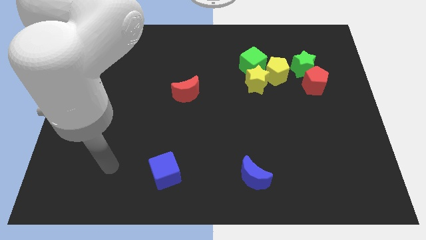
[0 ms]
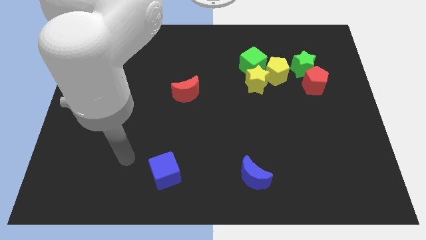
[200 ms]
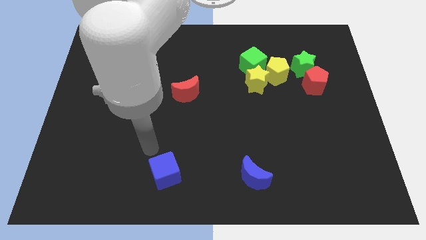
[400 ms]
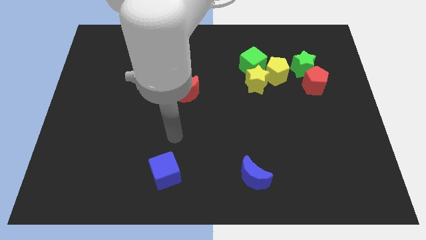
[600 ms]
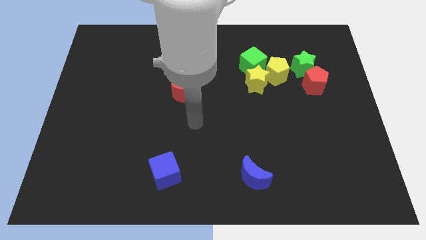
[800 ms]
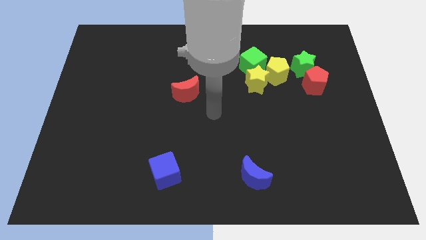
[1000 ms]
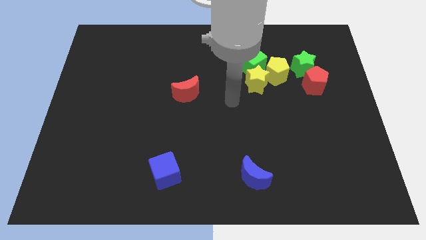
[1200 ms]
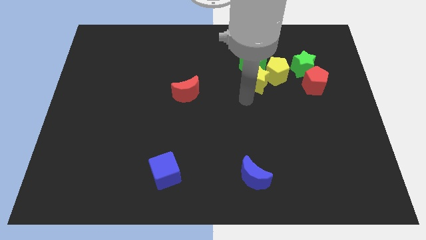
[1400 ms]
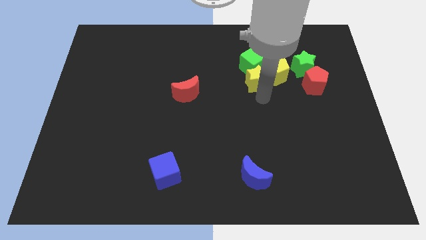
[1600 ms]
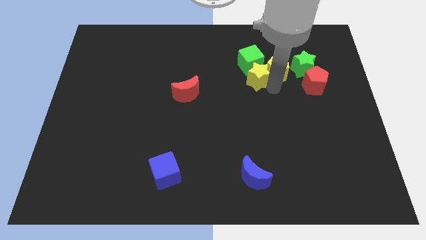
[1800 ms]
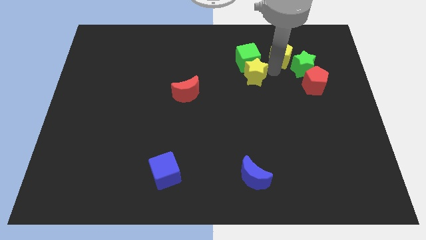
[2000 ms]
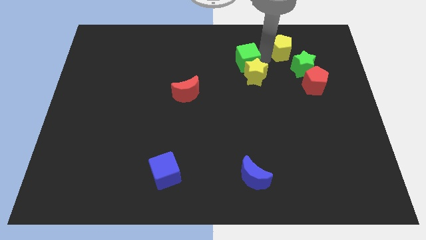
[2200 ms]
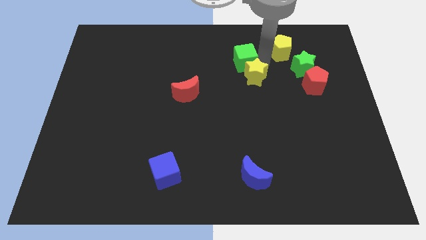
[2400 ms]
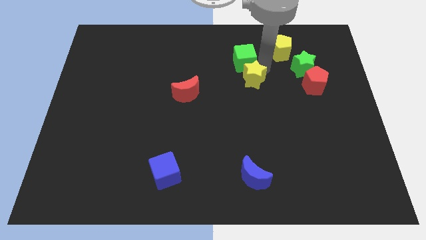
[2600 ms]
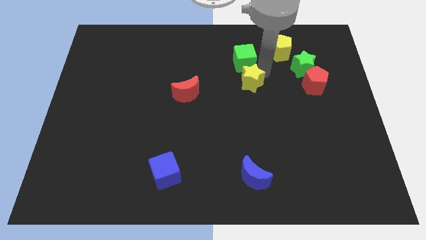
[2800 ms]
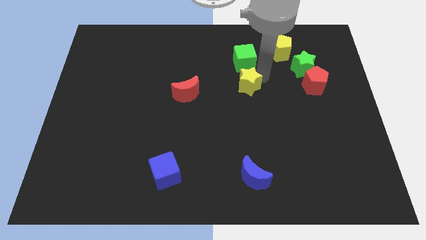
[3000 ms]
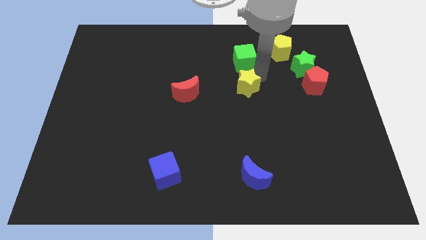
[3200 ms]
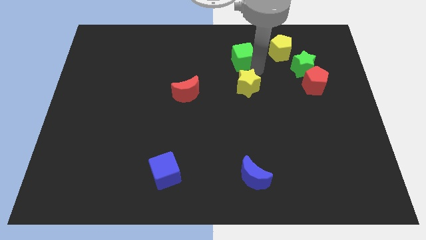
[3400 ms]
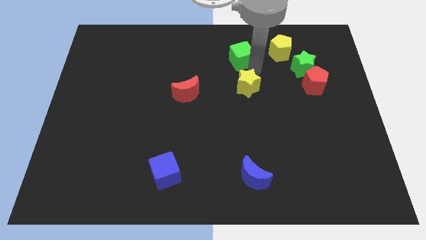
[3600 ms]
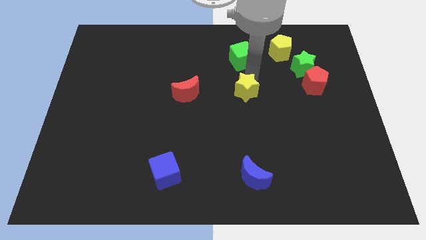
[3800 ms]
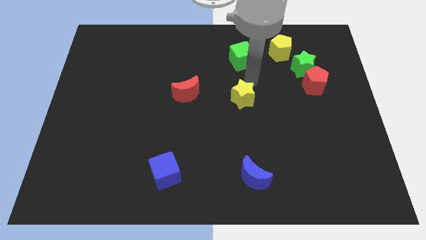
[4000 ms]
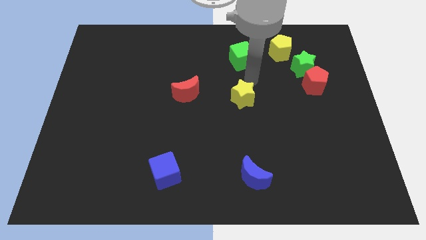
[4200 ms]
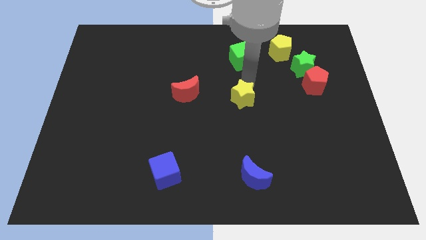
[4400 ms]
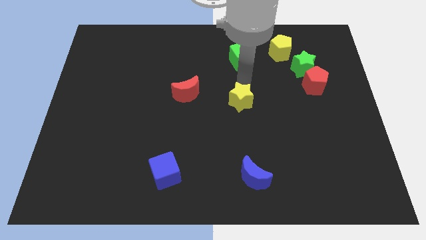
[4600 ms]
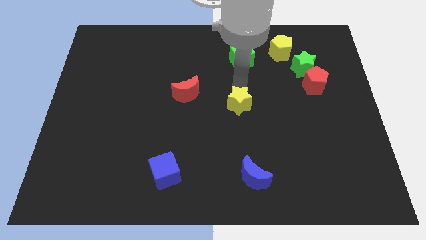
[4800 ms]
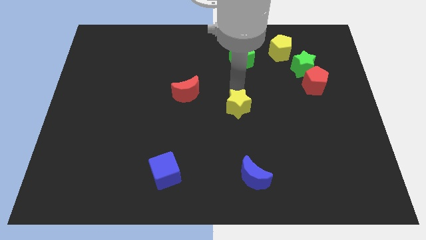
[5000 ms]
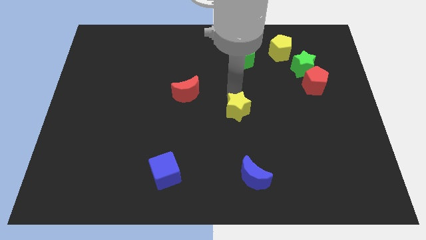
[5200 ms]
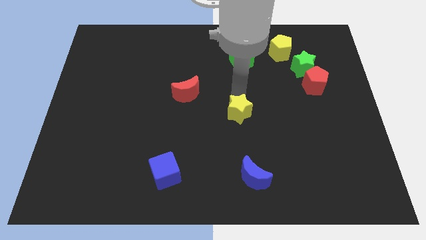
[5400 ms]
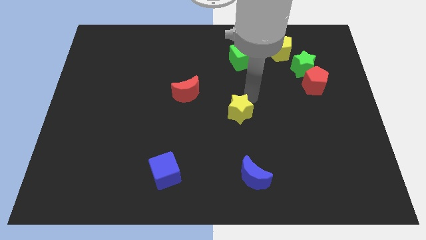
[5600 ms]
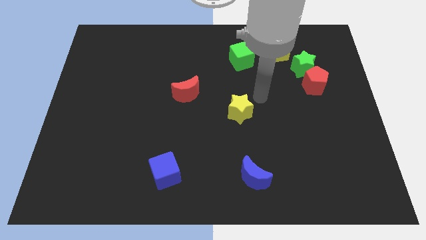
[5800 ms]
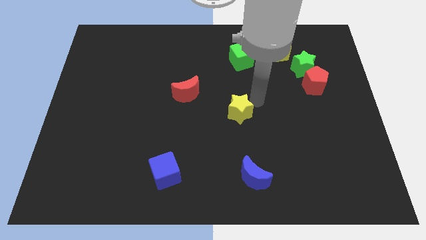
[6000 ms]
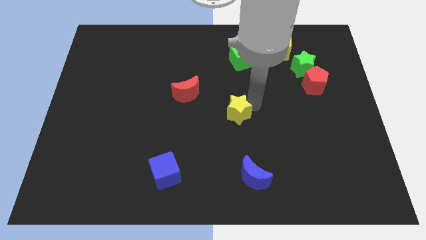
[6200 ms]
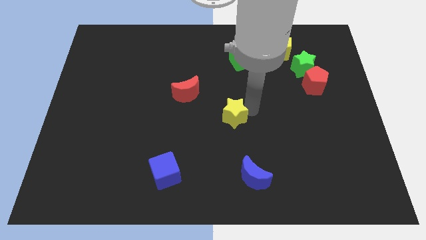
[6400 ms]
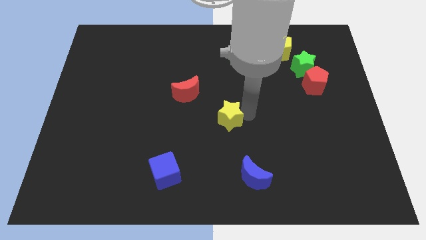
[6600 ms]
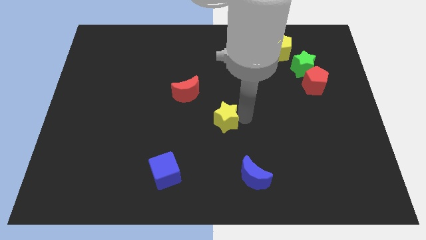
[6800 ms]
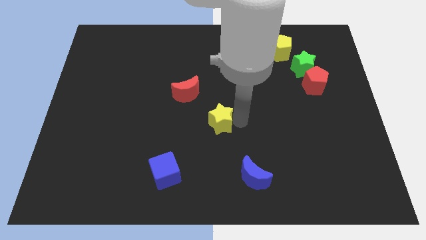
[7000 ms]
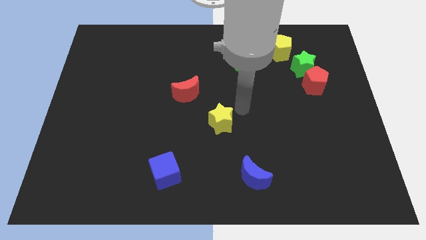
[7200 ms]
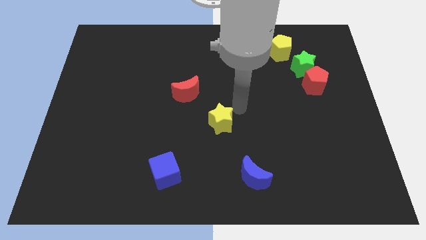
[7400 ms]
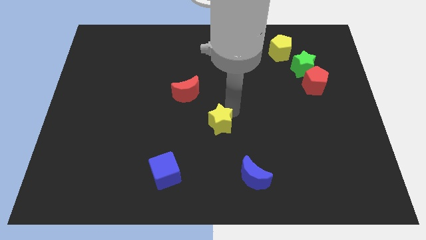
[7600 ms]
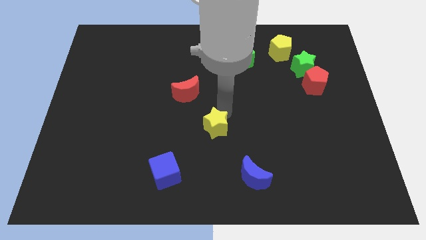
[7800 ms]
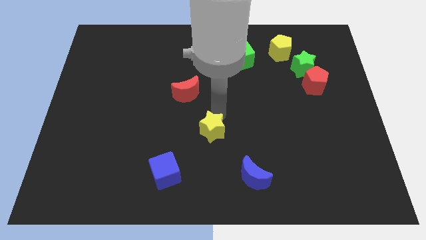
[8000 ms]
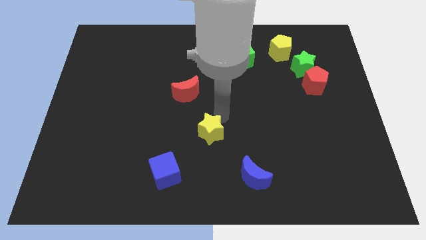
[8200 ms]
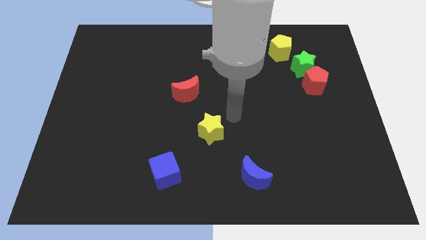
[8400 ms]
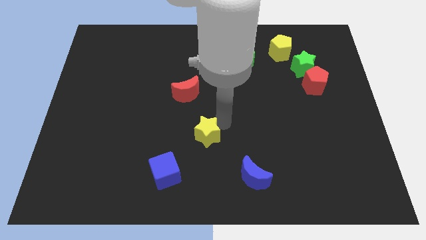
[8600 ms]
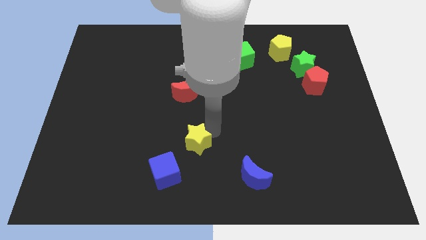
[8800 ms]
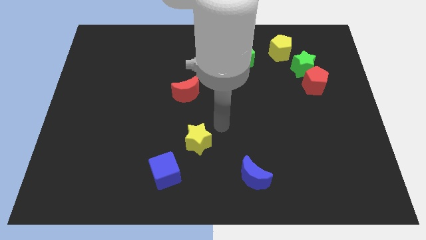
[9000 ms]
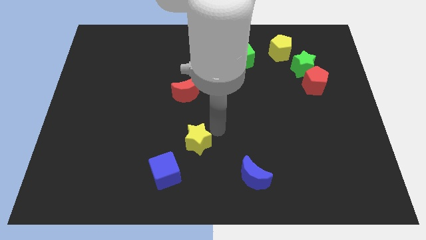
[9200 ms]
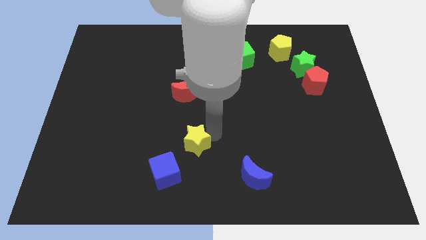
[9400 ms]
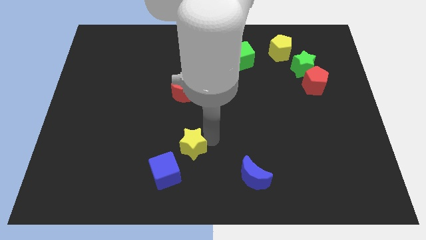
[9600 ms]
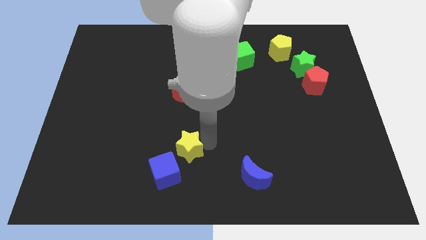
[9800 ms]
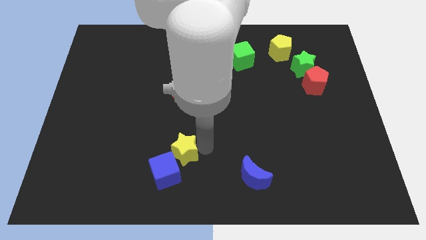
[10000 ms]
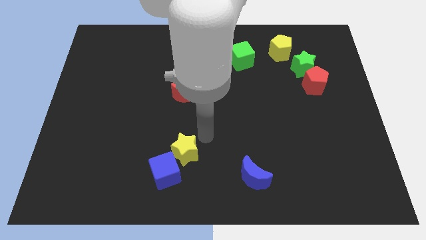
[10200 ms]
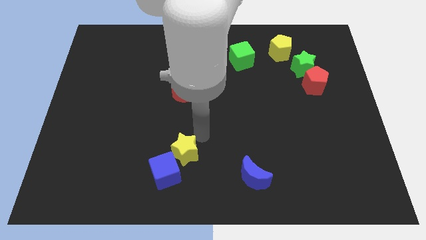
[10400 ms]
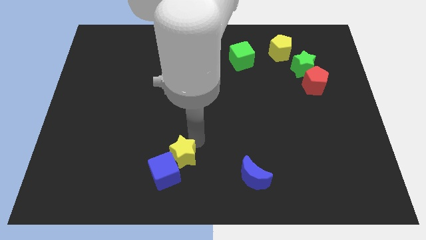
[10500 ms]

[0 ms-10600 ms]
slide the yellow star to the blue cube

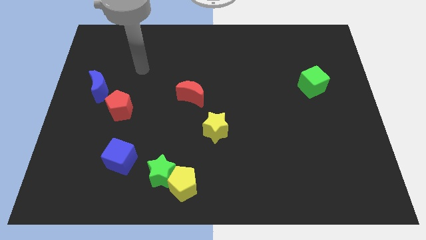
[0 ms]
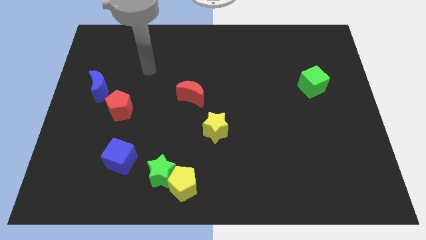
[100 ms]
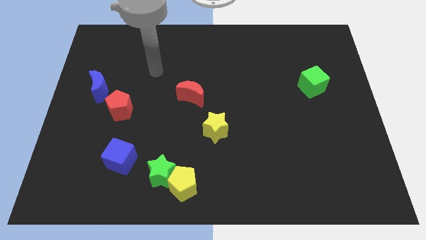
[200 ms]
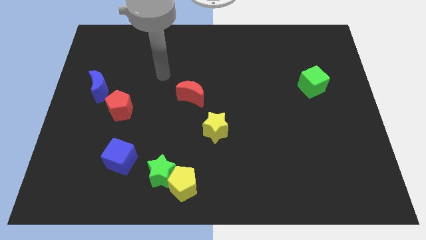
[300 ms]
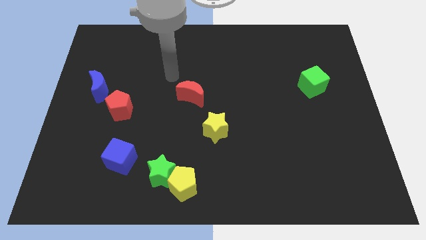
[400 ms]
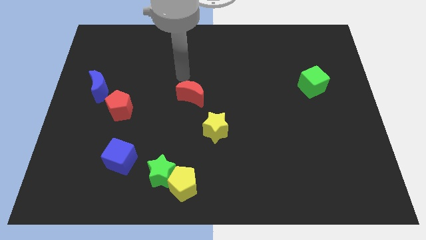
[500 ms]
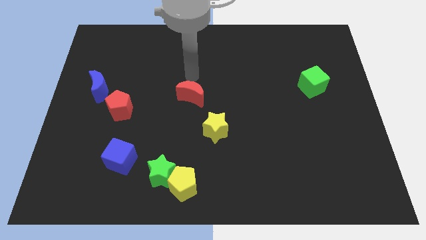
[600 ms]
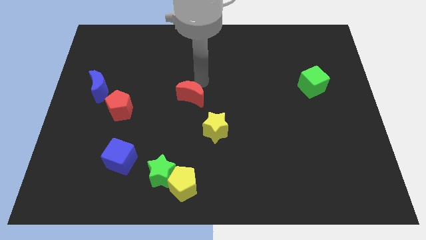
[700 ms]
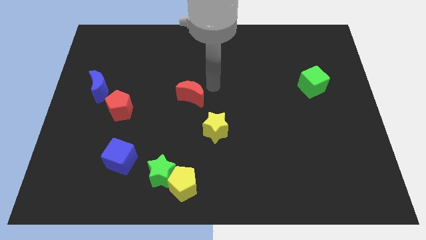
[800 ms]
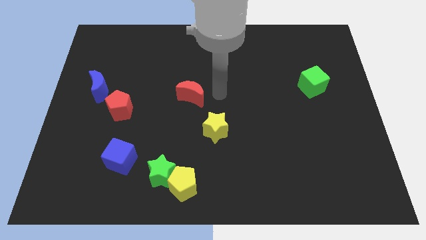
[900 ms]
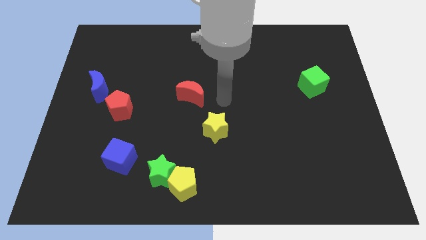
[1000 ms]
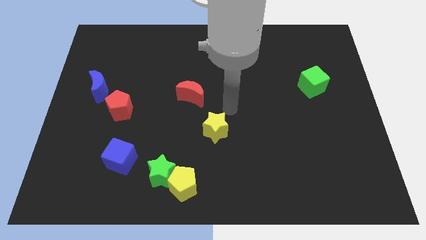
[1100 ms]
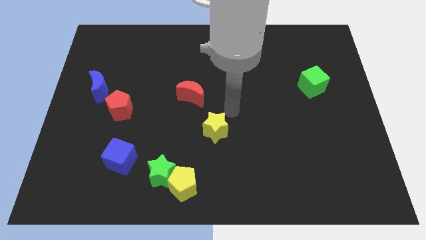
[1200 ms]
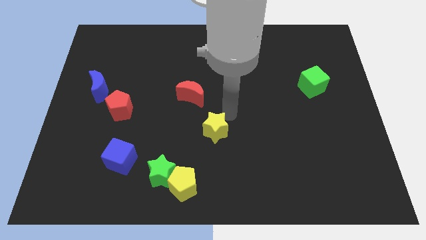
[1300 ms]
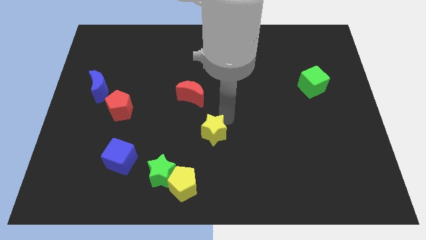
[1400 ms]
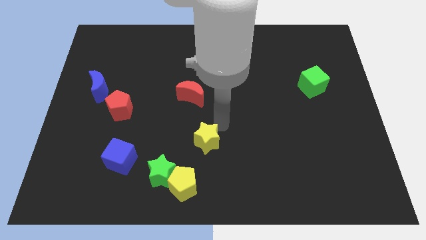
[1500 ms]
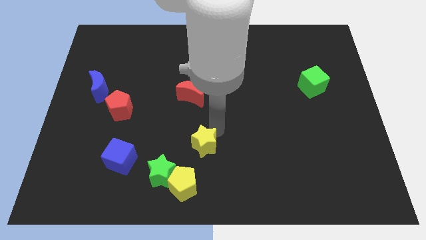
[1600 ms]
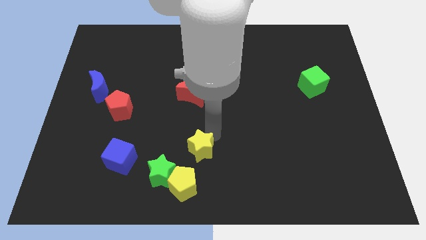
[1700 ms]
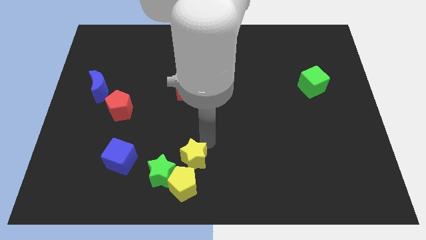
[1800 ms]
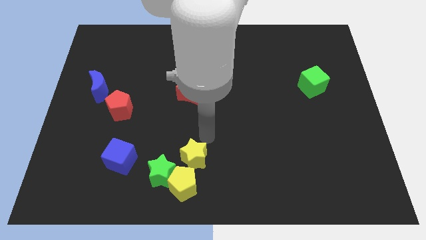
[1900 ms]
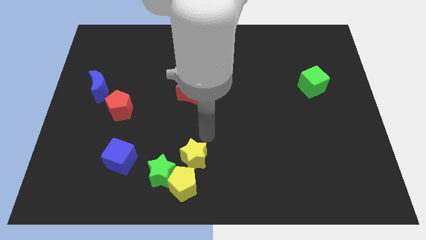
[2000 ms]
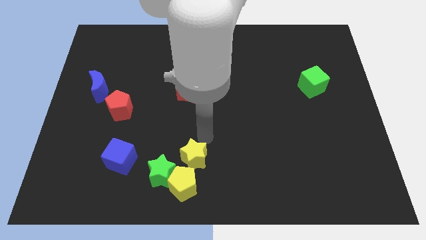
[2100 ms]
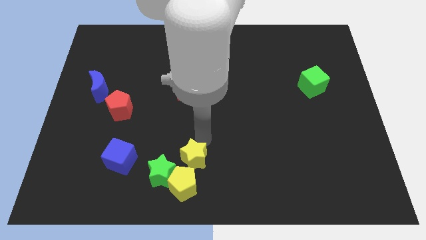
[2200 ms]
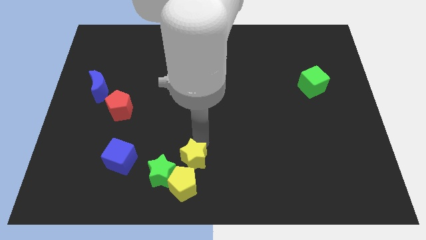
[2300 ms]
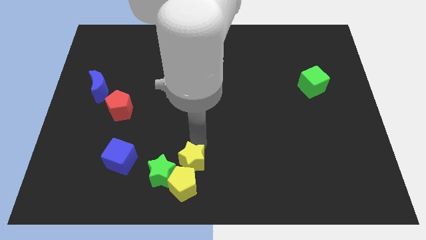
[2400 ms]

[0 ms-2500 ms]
push the yellow star close to the yellow pentagon

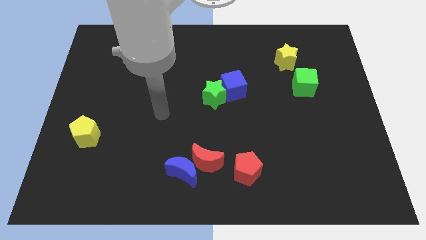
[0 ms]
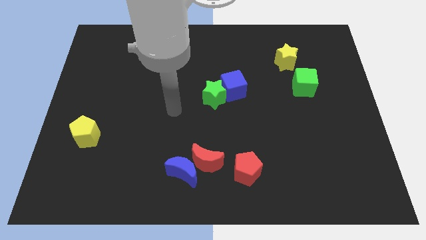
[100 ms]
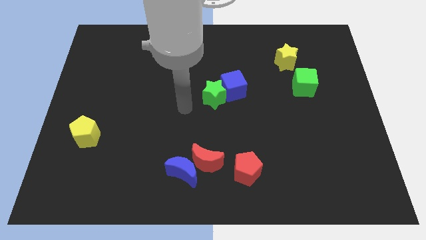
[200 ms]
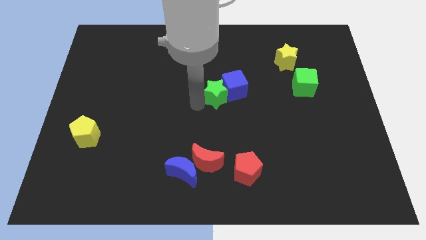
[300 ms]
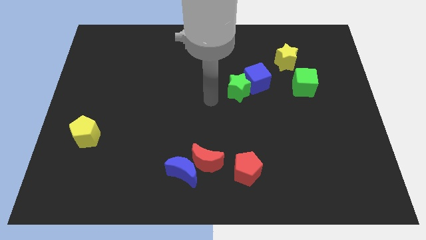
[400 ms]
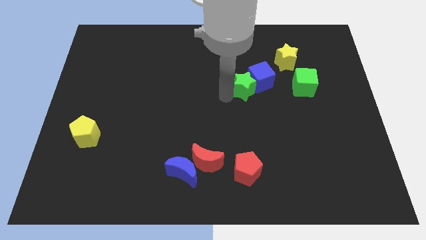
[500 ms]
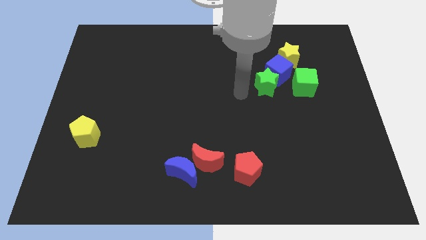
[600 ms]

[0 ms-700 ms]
slide the blue cube to the yellow star

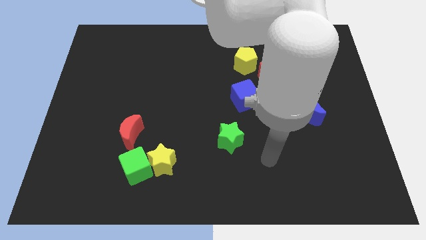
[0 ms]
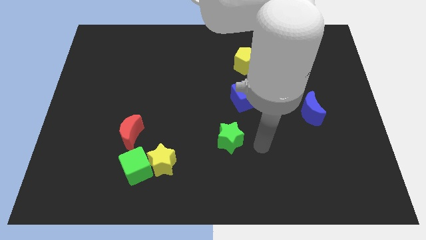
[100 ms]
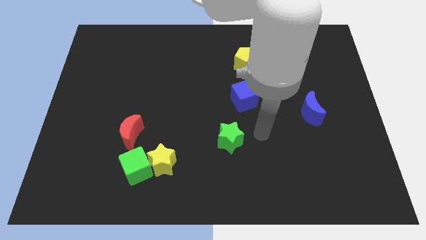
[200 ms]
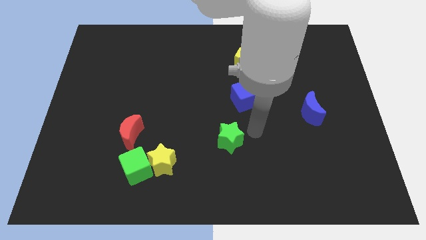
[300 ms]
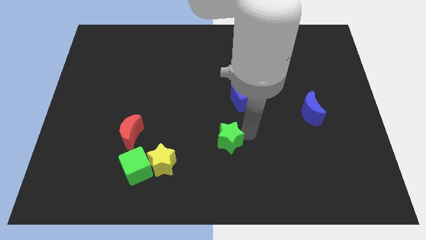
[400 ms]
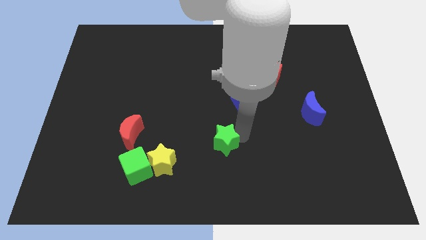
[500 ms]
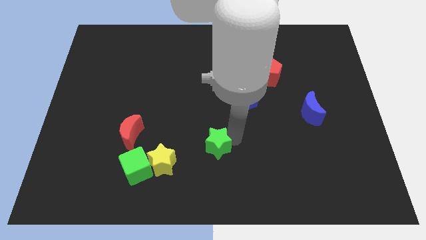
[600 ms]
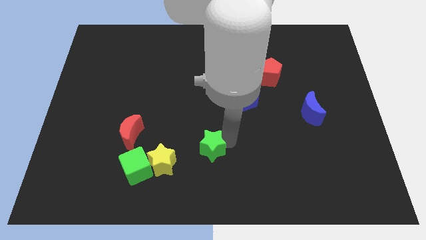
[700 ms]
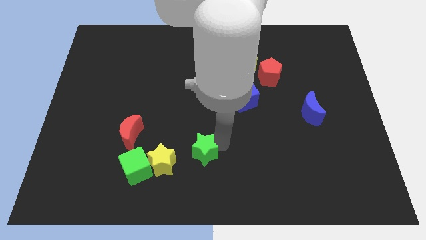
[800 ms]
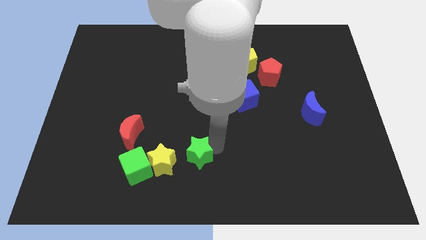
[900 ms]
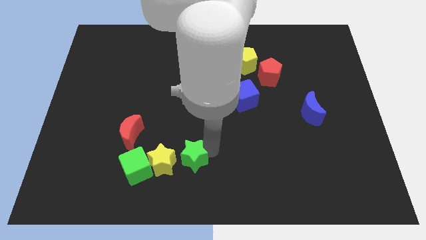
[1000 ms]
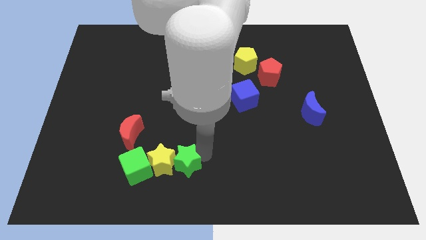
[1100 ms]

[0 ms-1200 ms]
push the green star towards the yellow star
